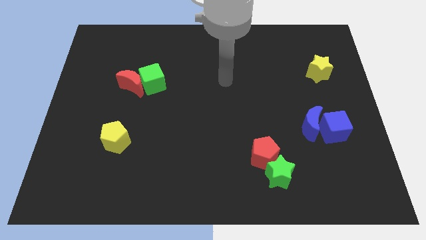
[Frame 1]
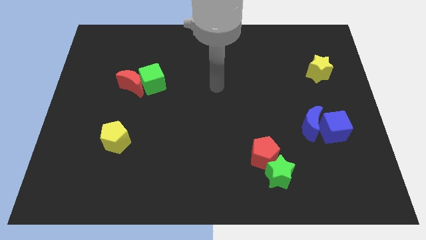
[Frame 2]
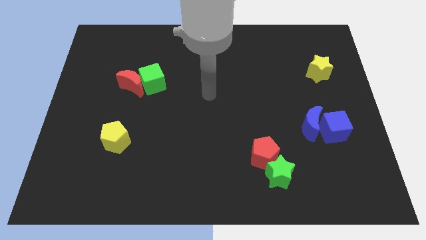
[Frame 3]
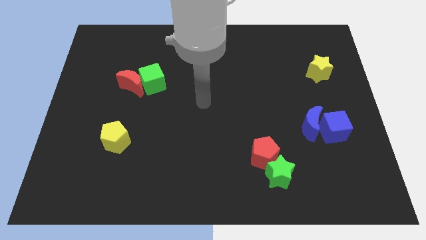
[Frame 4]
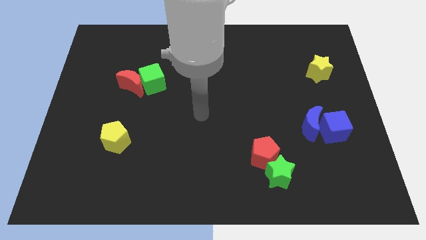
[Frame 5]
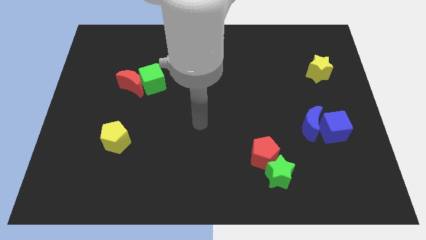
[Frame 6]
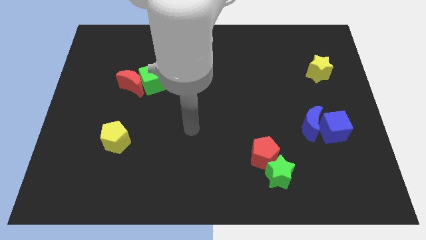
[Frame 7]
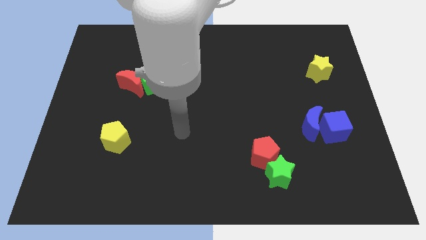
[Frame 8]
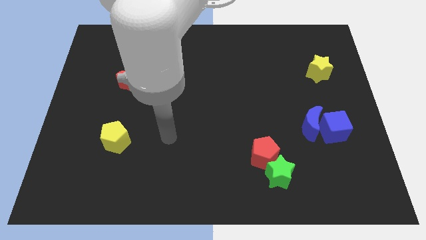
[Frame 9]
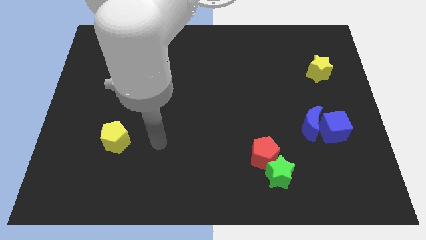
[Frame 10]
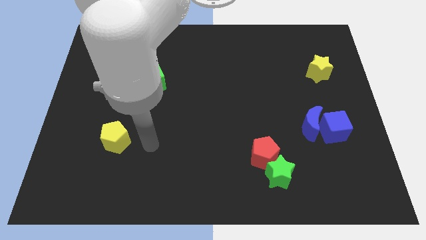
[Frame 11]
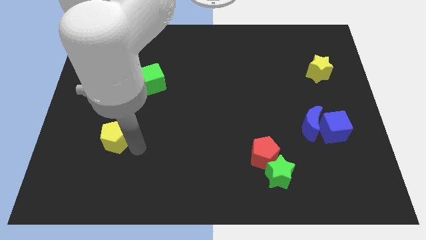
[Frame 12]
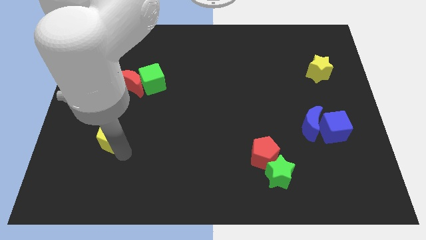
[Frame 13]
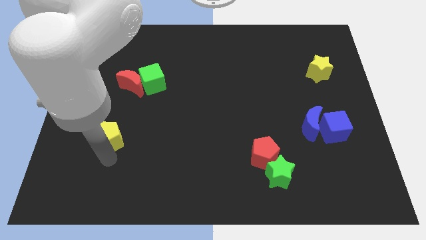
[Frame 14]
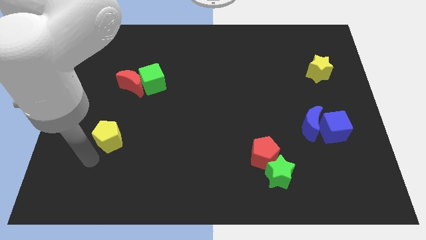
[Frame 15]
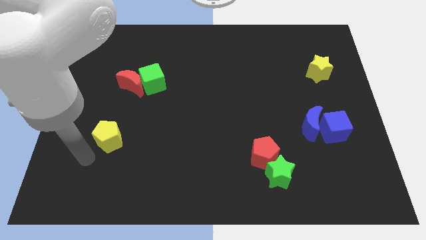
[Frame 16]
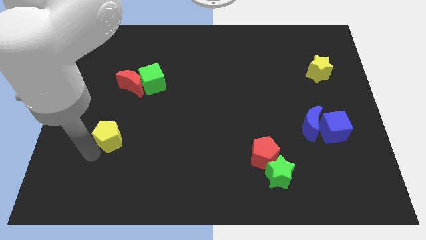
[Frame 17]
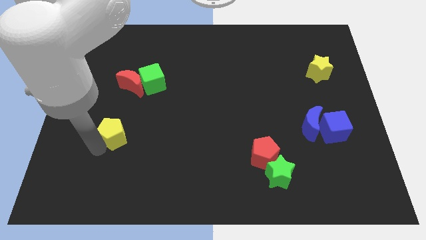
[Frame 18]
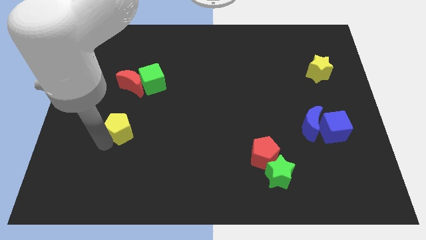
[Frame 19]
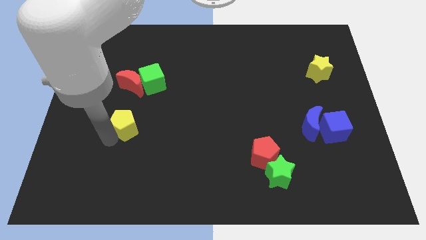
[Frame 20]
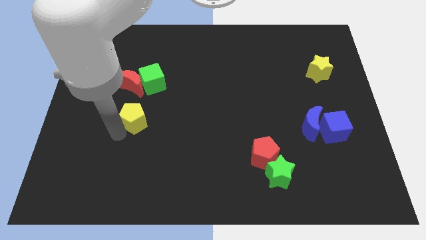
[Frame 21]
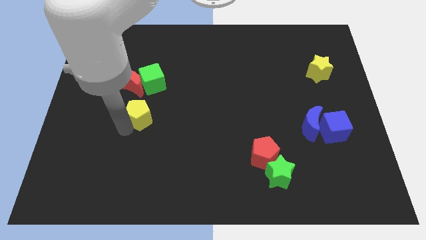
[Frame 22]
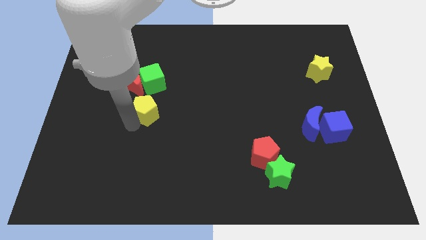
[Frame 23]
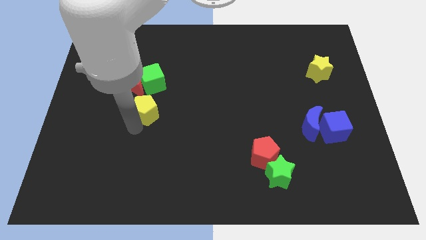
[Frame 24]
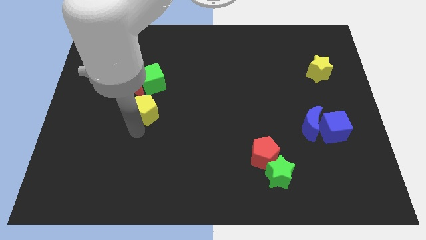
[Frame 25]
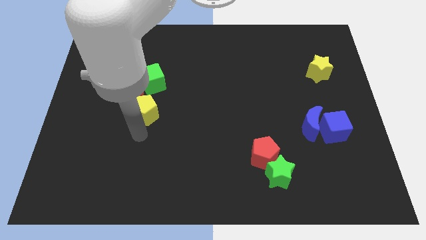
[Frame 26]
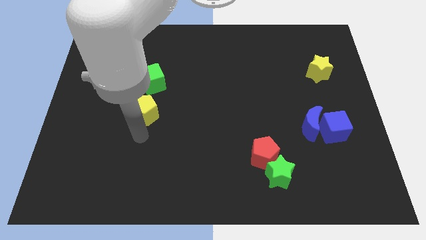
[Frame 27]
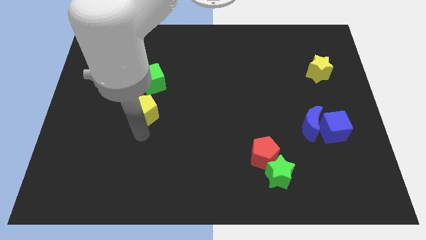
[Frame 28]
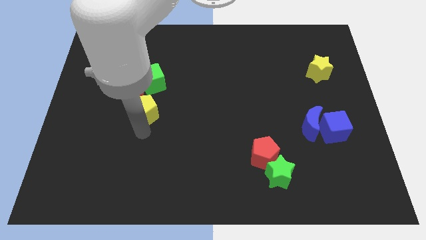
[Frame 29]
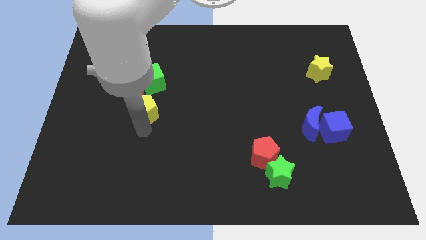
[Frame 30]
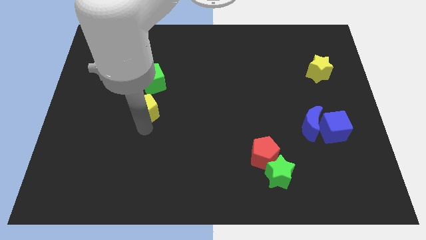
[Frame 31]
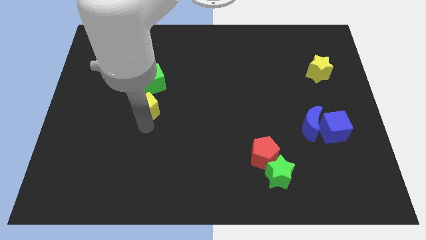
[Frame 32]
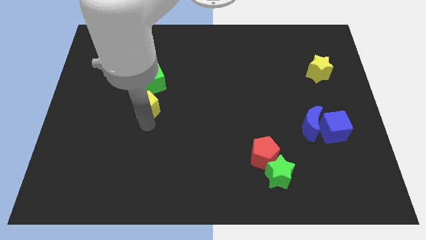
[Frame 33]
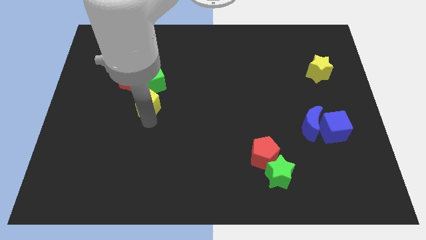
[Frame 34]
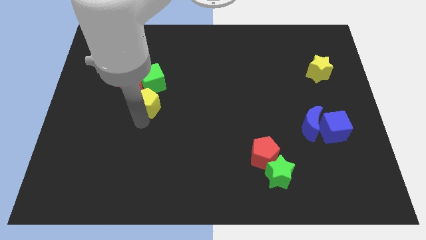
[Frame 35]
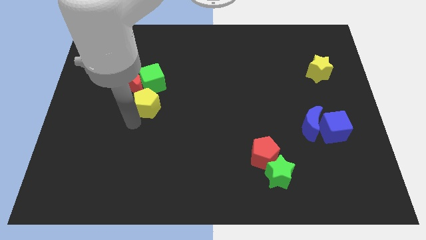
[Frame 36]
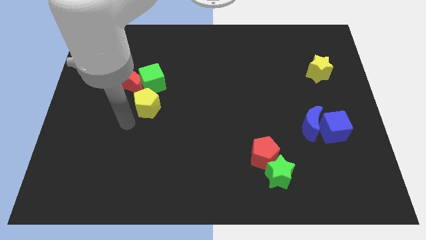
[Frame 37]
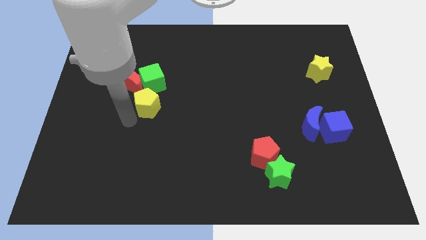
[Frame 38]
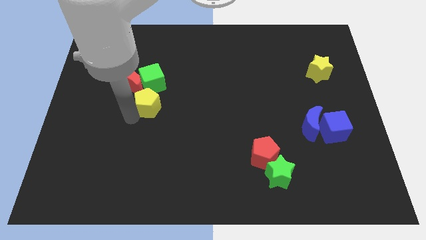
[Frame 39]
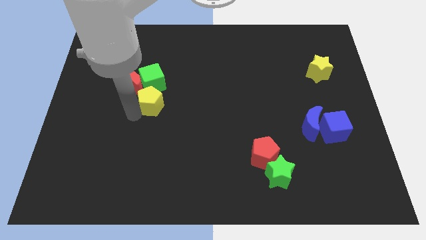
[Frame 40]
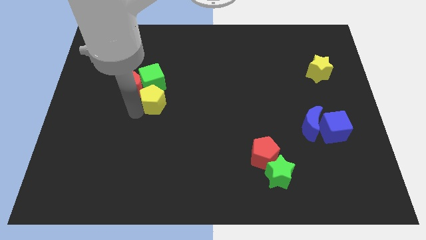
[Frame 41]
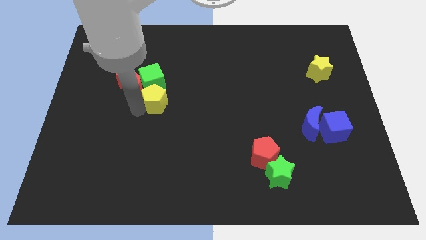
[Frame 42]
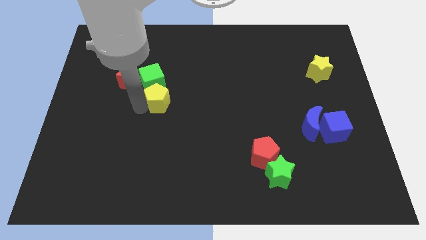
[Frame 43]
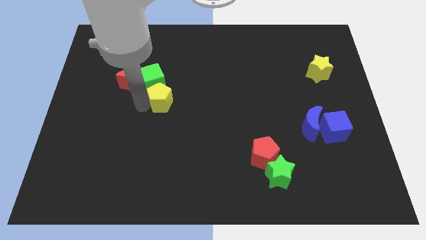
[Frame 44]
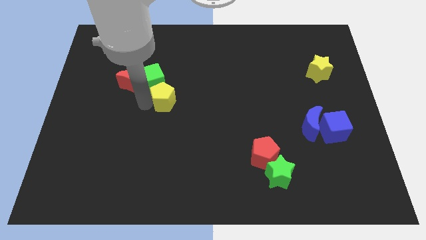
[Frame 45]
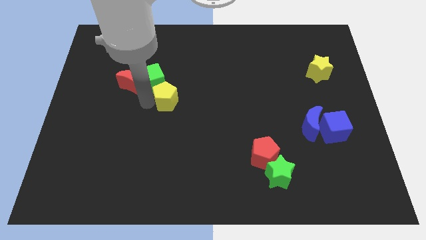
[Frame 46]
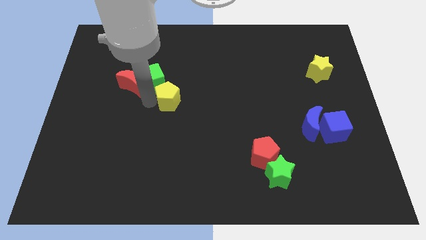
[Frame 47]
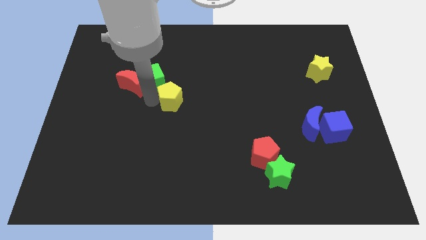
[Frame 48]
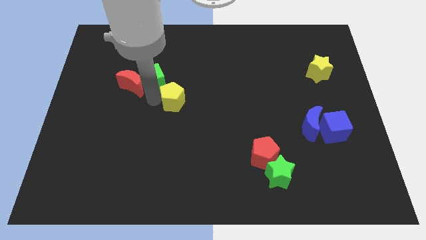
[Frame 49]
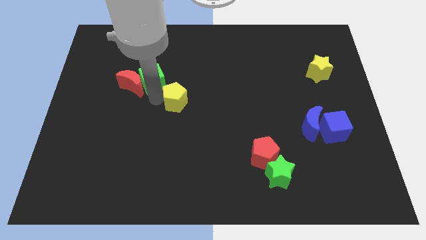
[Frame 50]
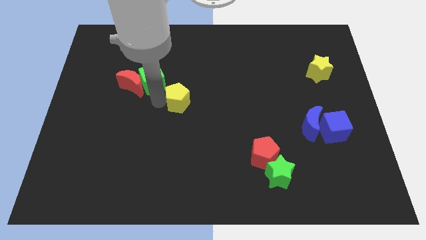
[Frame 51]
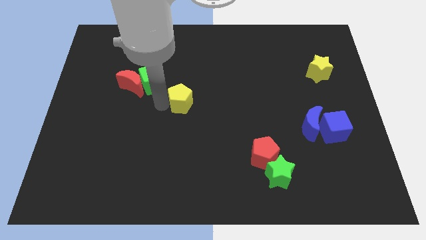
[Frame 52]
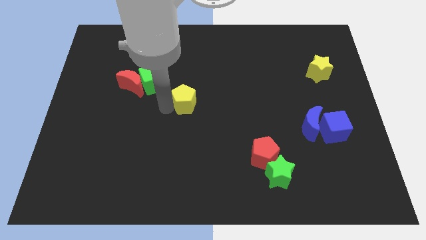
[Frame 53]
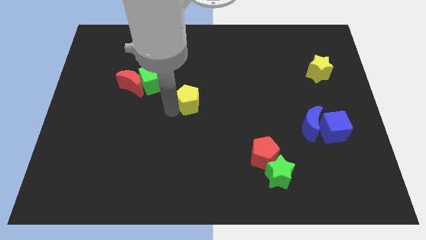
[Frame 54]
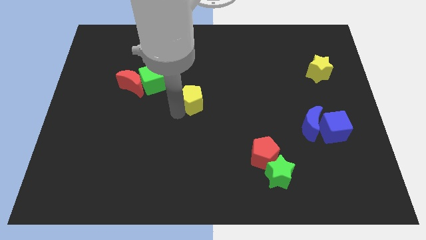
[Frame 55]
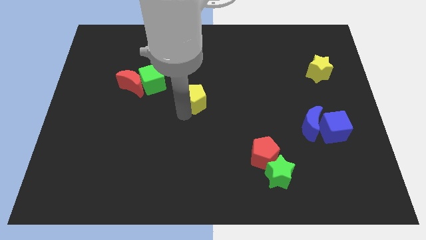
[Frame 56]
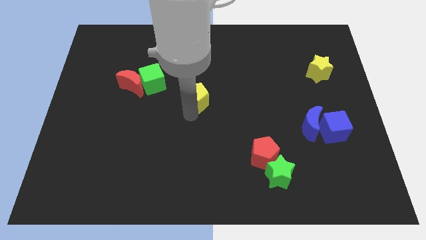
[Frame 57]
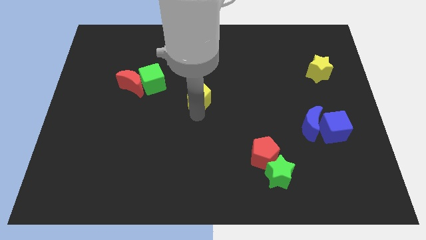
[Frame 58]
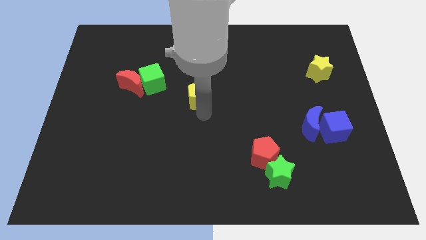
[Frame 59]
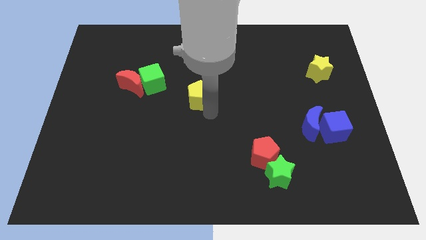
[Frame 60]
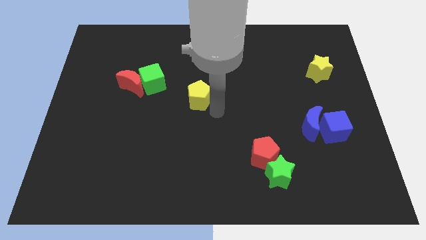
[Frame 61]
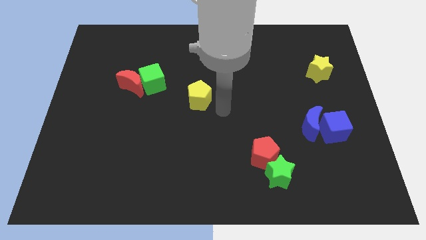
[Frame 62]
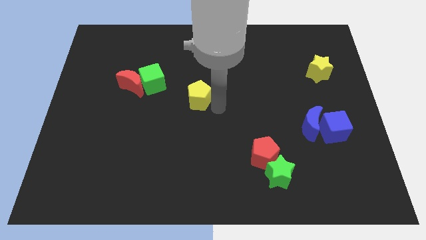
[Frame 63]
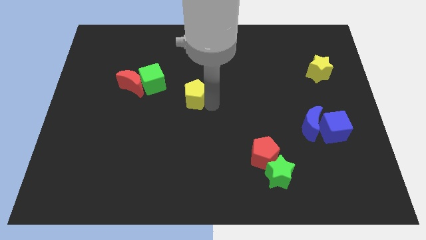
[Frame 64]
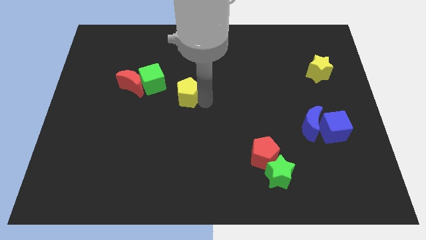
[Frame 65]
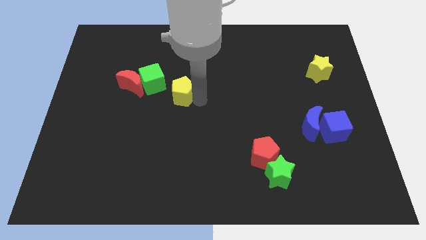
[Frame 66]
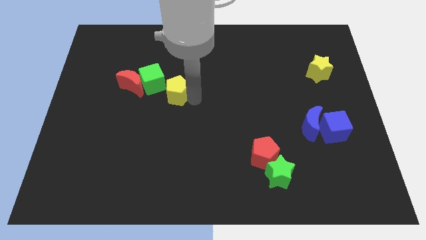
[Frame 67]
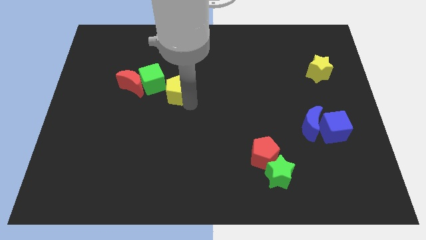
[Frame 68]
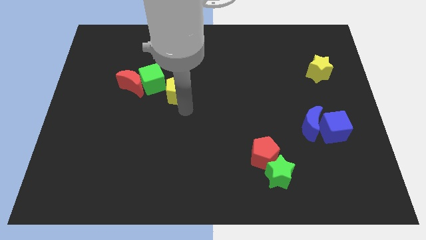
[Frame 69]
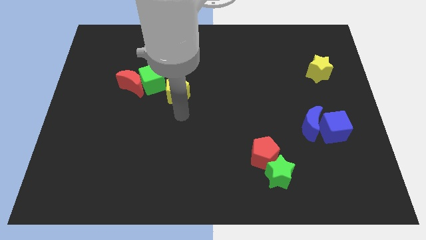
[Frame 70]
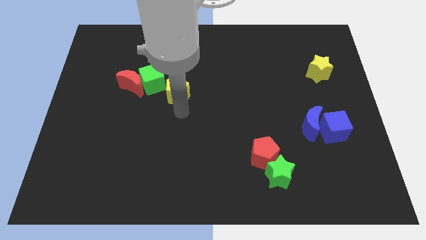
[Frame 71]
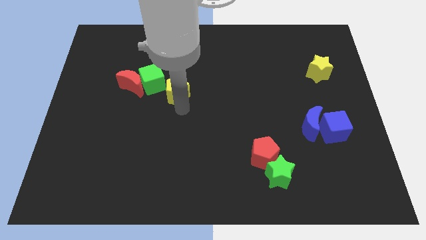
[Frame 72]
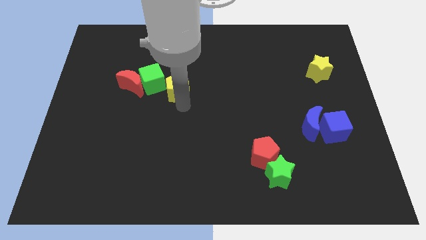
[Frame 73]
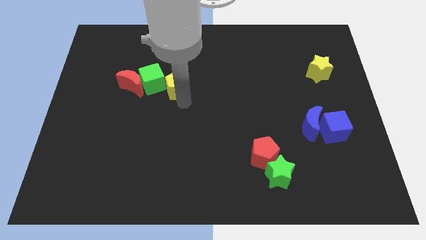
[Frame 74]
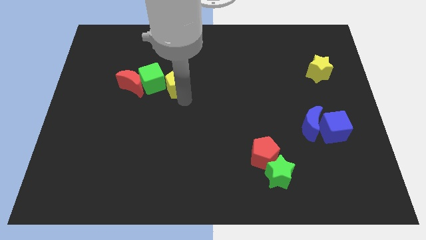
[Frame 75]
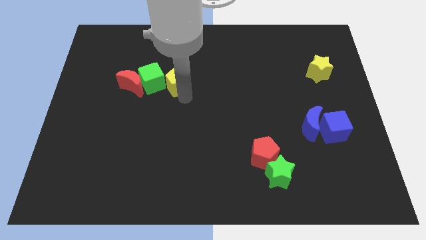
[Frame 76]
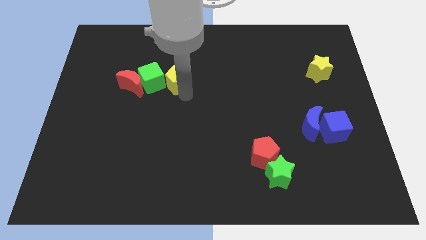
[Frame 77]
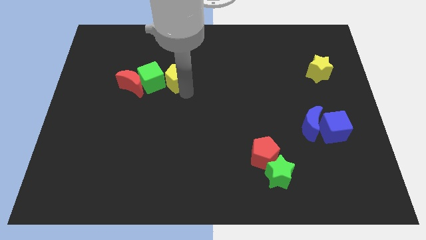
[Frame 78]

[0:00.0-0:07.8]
put the yellow pentagon diagonally up and to the right of the green cube
